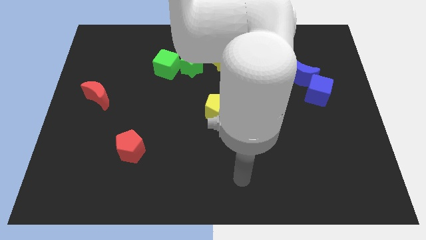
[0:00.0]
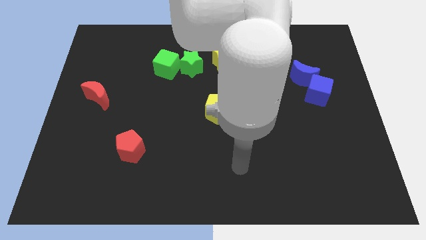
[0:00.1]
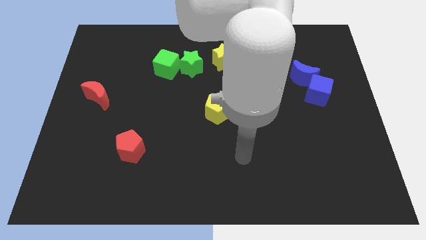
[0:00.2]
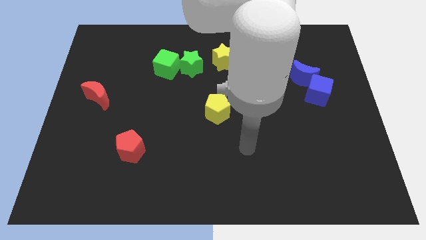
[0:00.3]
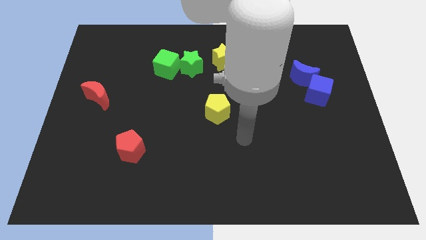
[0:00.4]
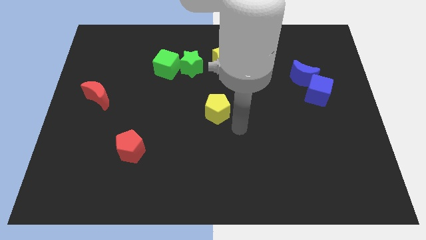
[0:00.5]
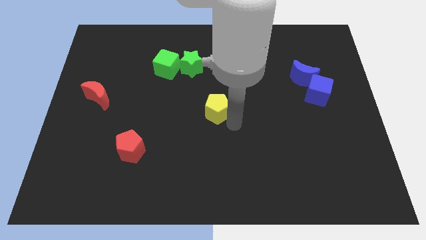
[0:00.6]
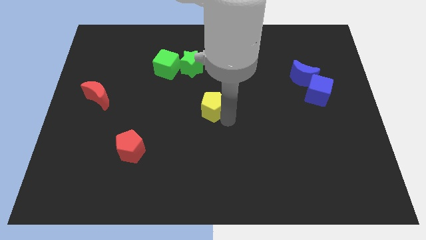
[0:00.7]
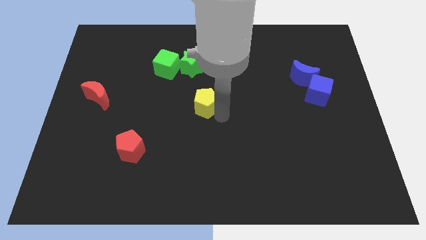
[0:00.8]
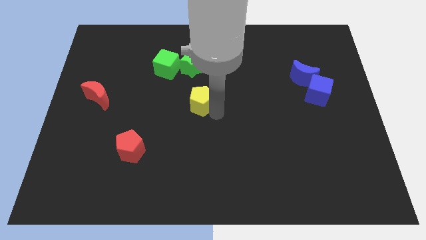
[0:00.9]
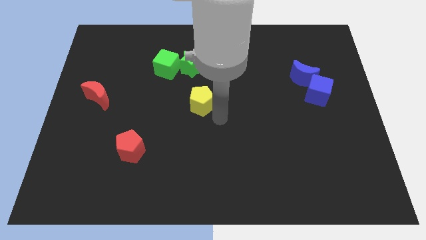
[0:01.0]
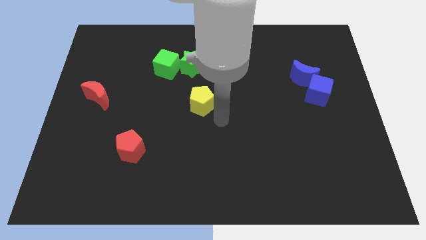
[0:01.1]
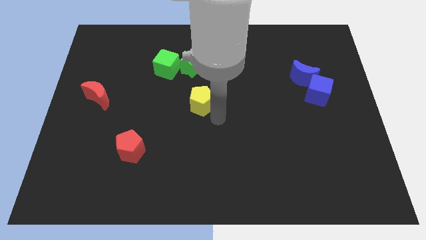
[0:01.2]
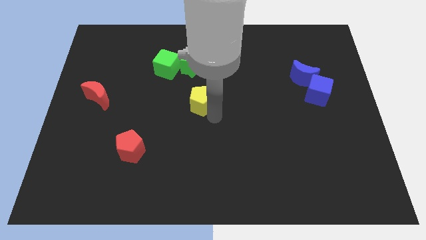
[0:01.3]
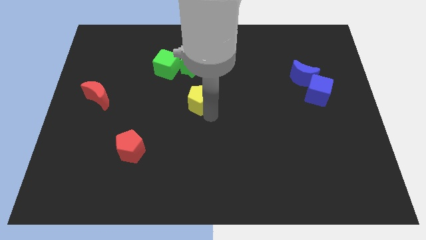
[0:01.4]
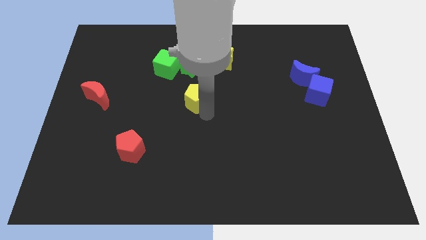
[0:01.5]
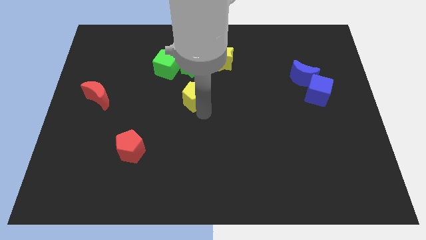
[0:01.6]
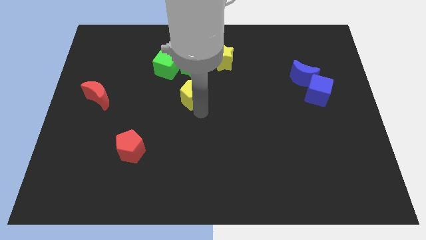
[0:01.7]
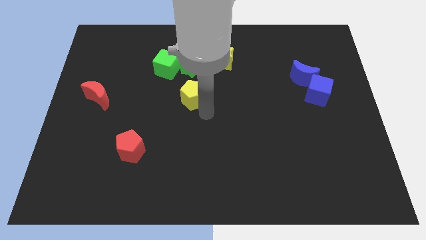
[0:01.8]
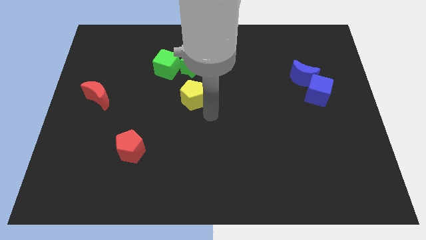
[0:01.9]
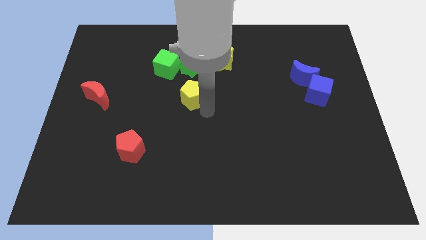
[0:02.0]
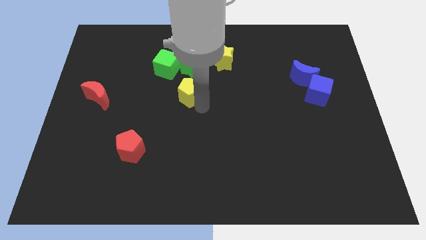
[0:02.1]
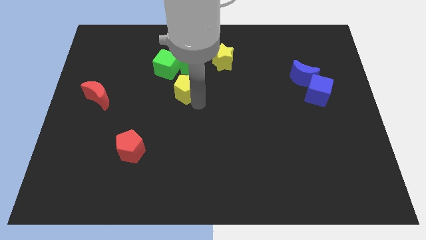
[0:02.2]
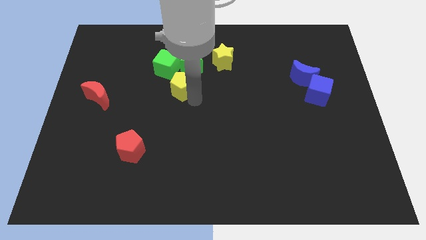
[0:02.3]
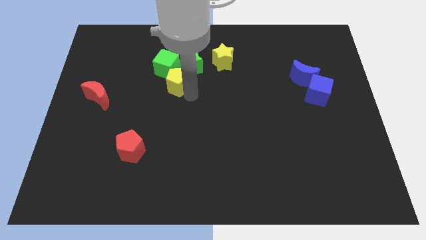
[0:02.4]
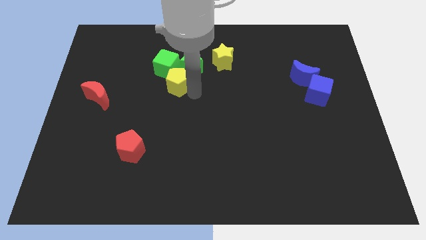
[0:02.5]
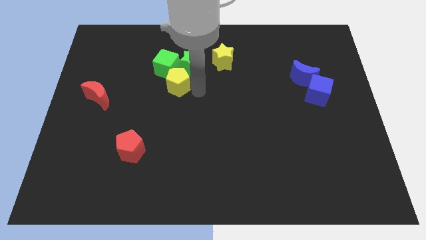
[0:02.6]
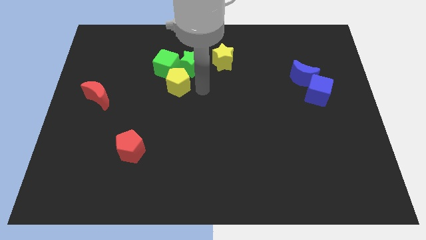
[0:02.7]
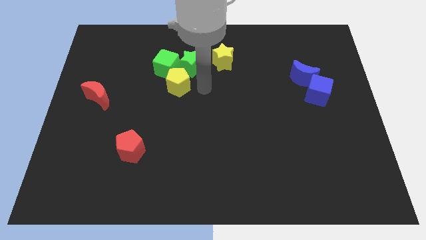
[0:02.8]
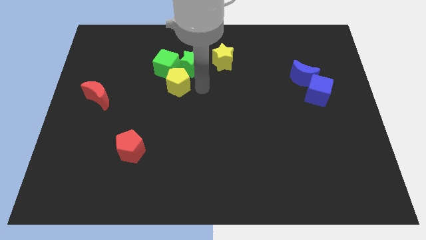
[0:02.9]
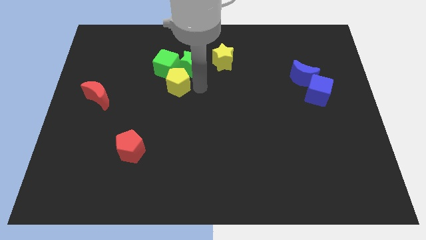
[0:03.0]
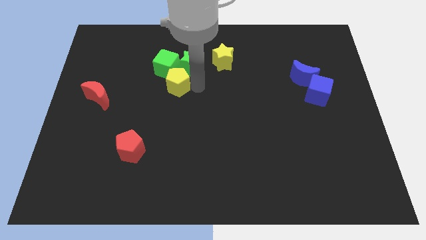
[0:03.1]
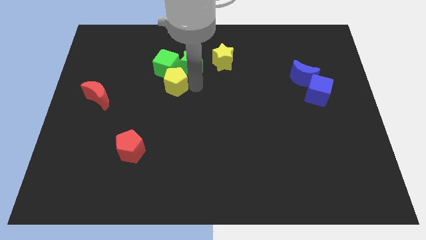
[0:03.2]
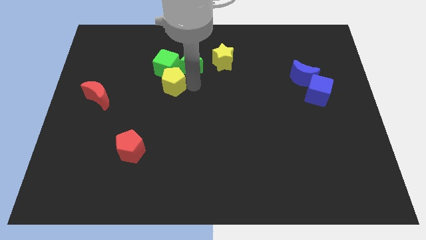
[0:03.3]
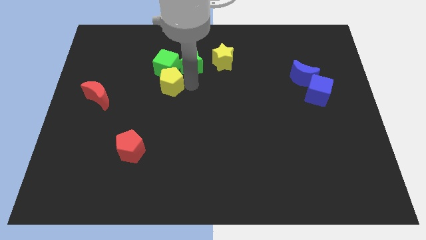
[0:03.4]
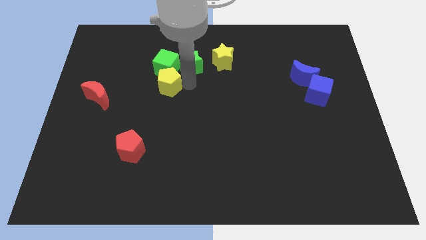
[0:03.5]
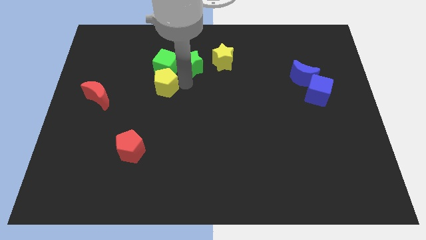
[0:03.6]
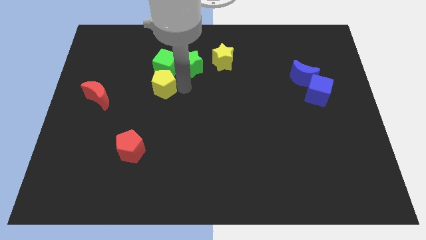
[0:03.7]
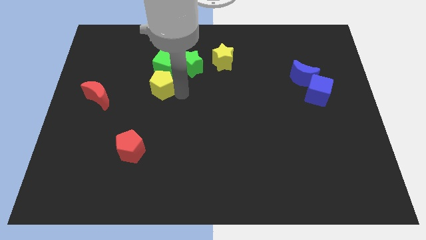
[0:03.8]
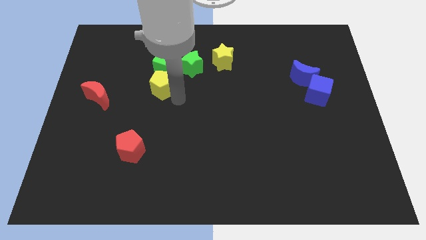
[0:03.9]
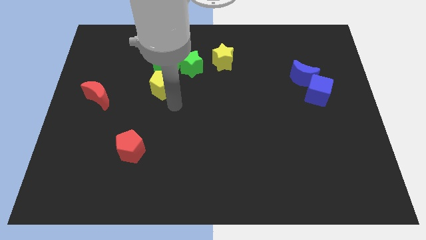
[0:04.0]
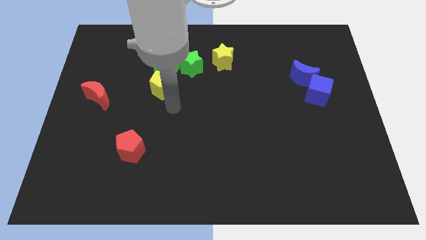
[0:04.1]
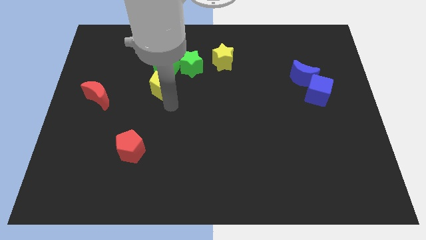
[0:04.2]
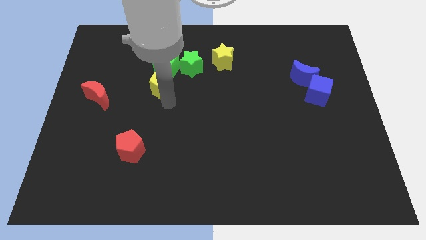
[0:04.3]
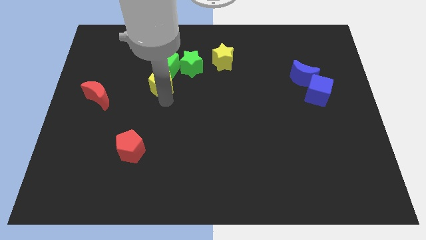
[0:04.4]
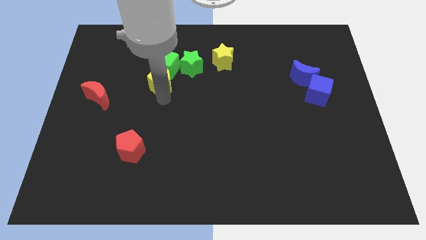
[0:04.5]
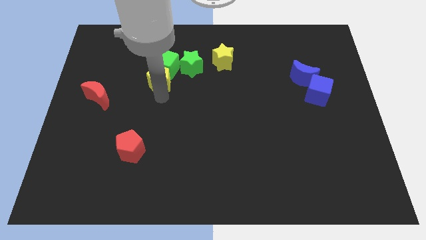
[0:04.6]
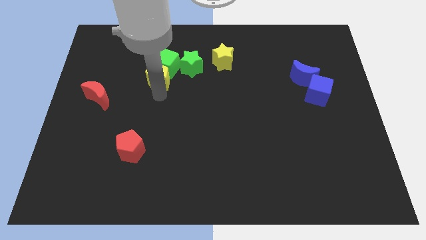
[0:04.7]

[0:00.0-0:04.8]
put the yellow pentagon to the left of the green star

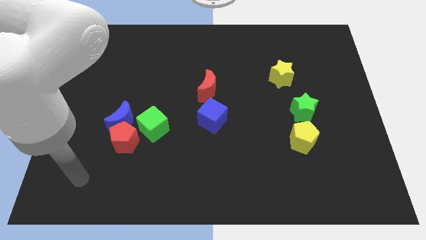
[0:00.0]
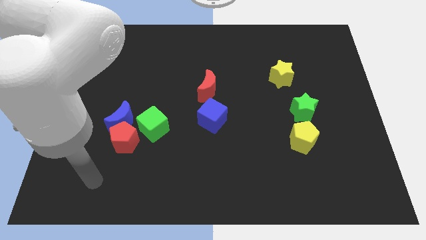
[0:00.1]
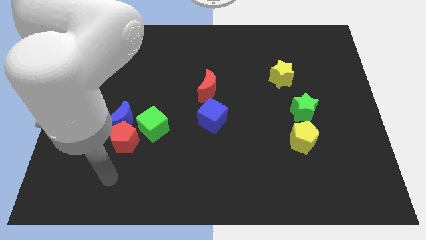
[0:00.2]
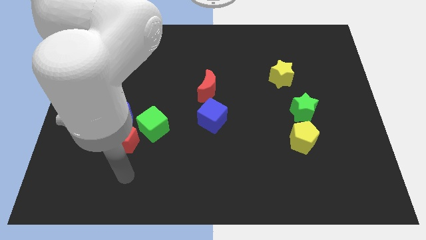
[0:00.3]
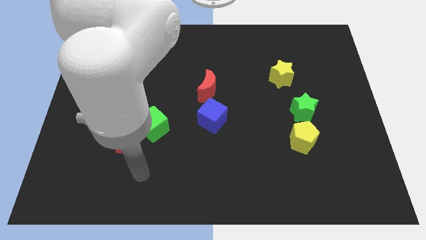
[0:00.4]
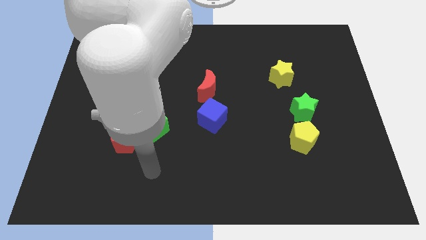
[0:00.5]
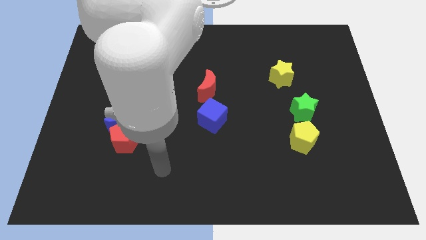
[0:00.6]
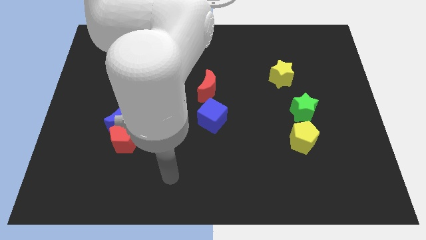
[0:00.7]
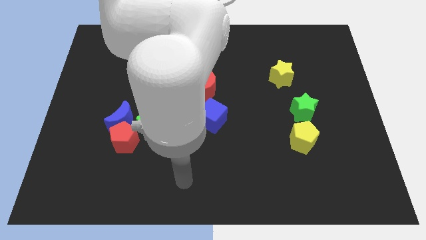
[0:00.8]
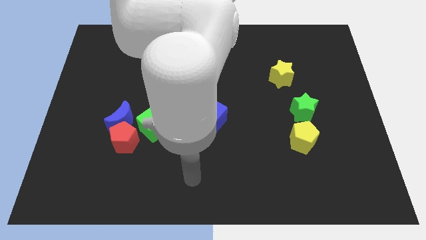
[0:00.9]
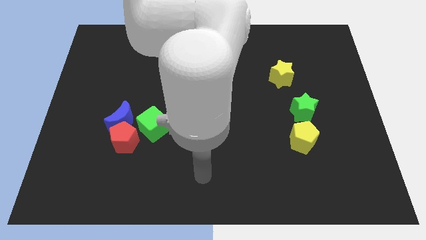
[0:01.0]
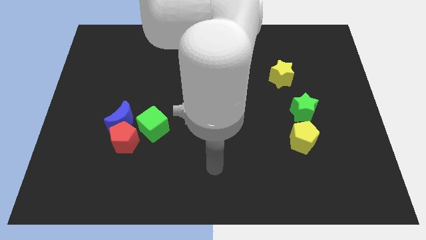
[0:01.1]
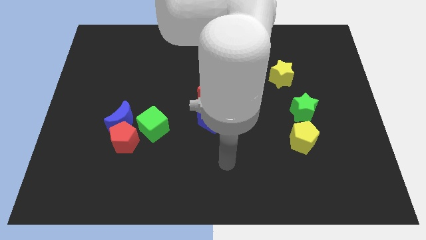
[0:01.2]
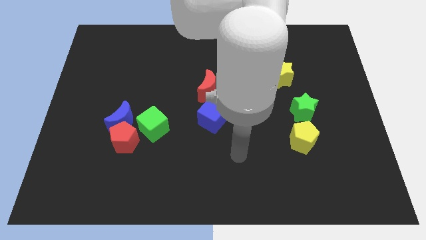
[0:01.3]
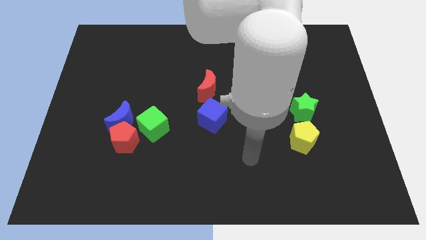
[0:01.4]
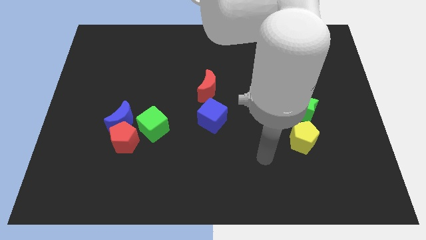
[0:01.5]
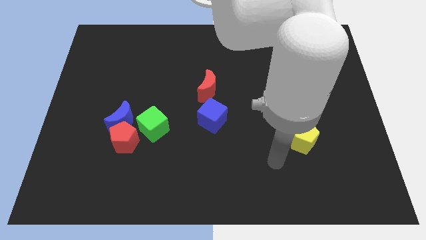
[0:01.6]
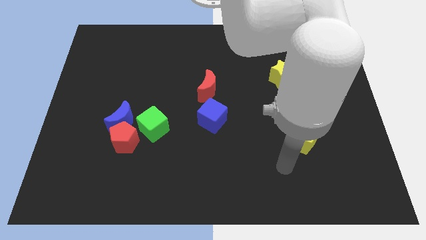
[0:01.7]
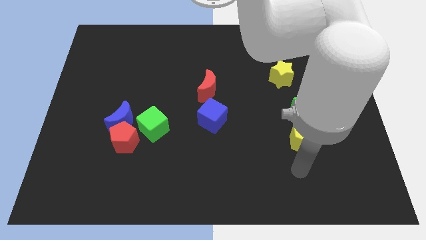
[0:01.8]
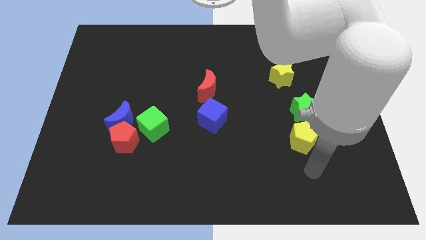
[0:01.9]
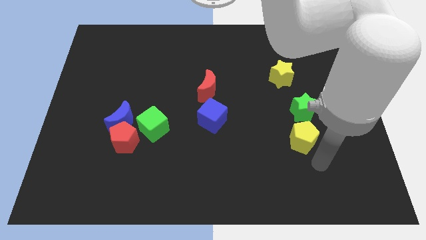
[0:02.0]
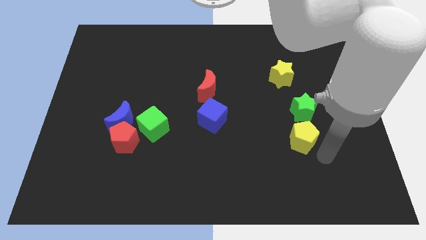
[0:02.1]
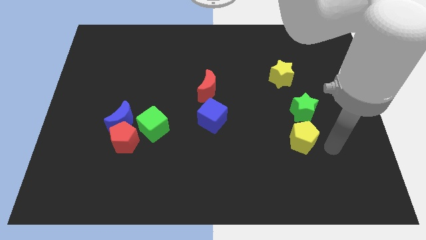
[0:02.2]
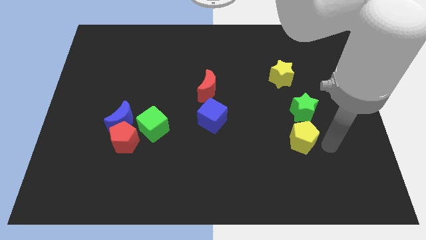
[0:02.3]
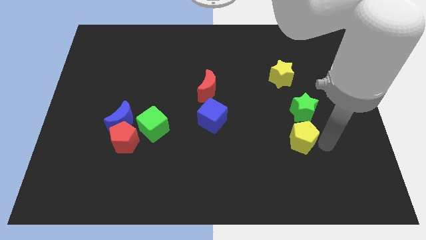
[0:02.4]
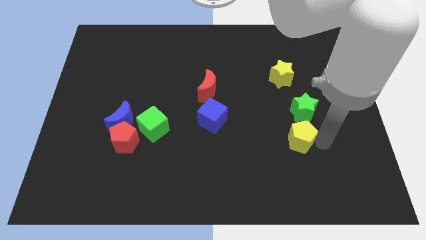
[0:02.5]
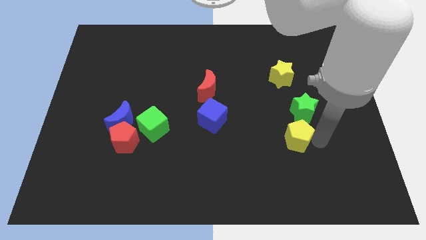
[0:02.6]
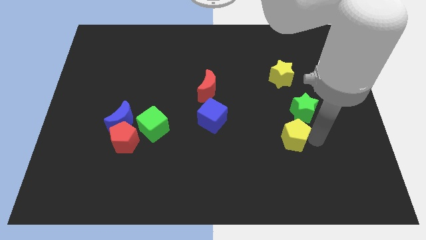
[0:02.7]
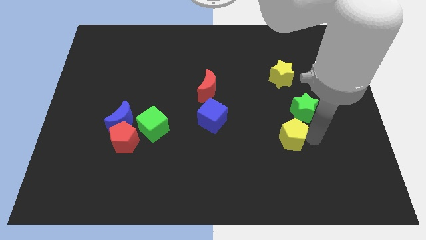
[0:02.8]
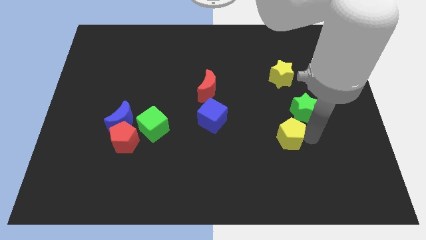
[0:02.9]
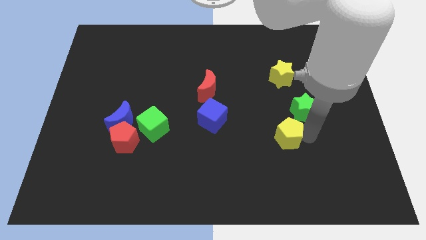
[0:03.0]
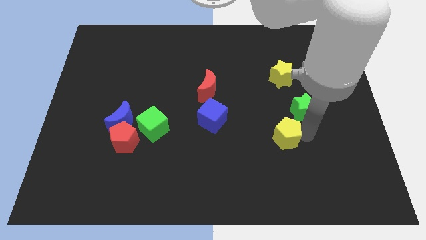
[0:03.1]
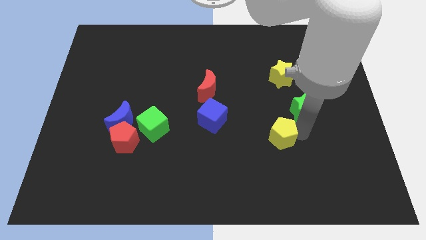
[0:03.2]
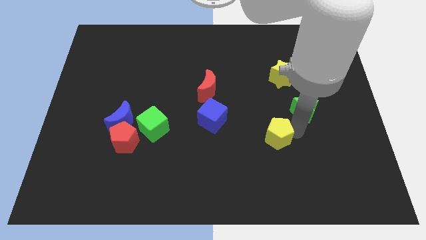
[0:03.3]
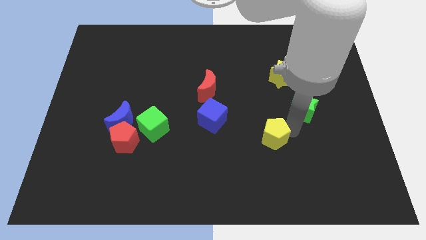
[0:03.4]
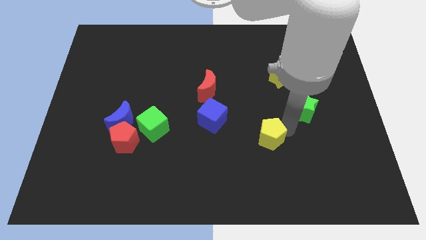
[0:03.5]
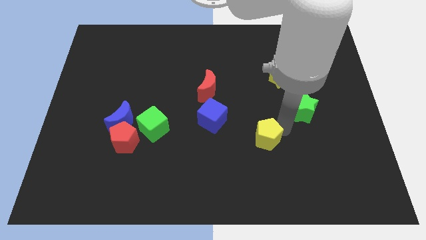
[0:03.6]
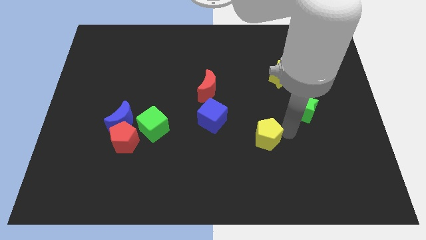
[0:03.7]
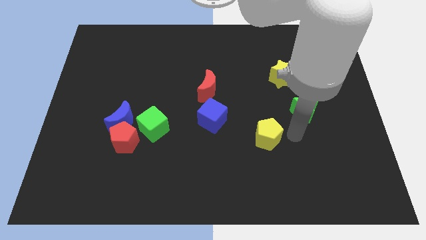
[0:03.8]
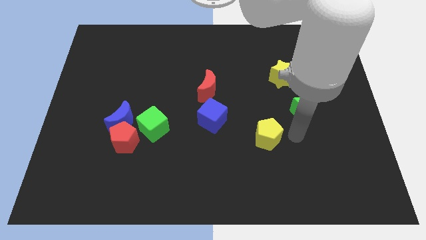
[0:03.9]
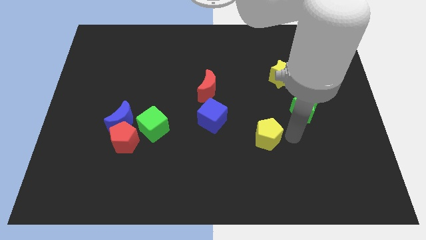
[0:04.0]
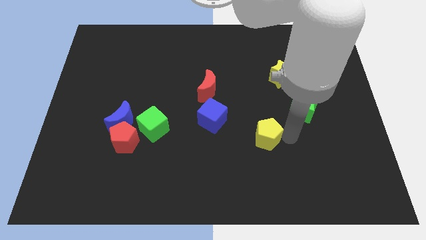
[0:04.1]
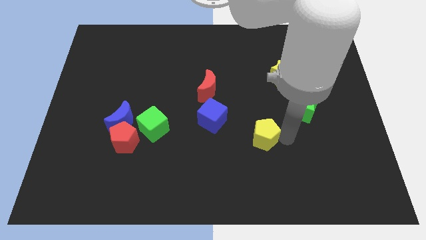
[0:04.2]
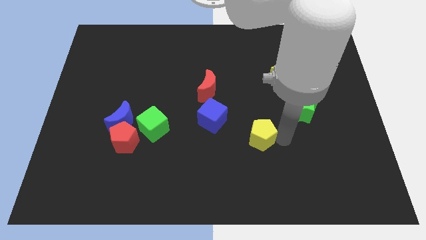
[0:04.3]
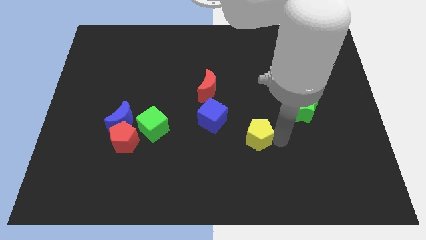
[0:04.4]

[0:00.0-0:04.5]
push the yellow pentagon to the bottom right side of the blue cube
